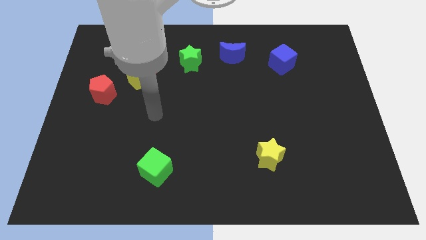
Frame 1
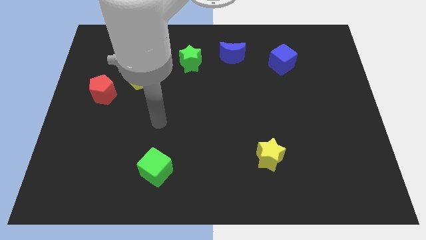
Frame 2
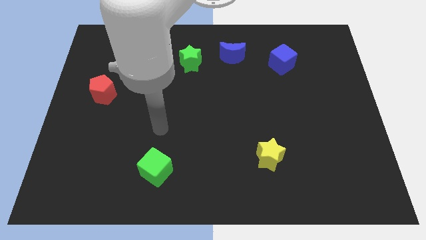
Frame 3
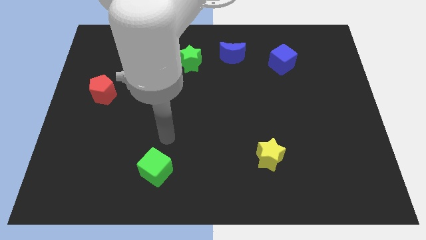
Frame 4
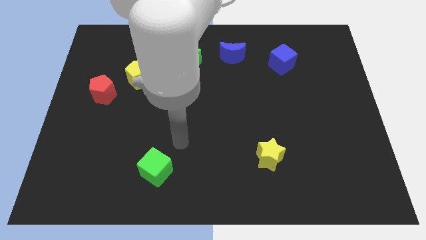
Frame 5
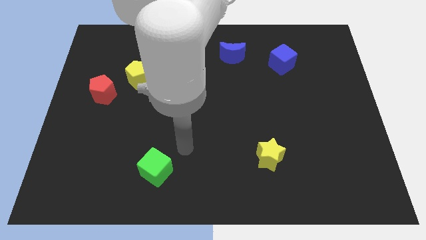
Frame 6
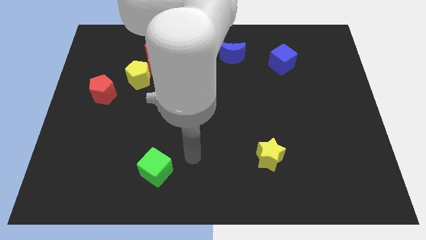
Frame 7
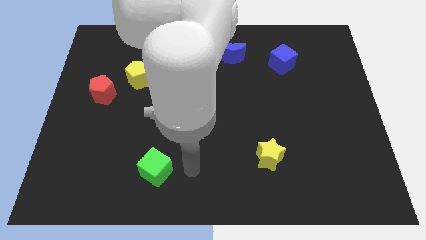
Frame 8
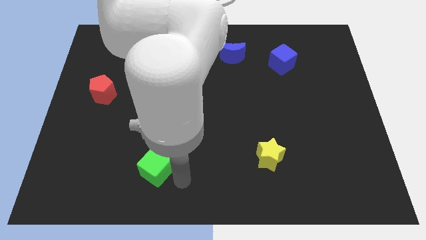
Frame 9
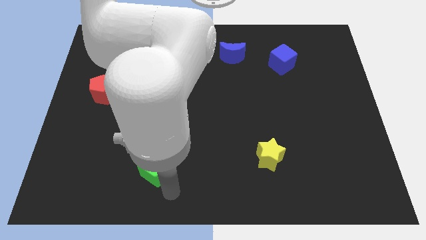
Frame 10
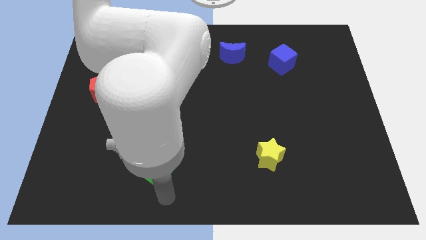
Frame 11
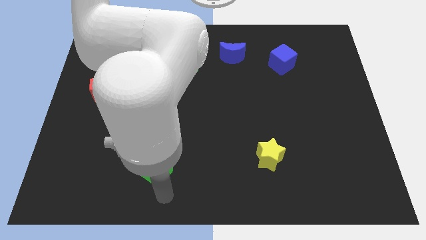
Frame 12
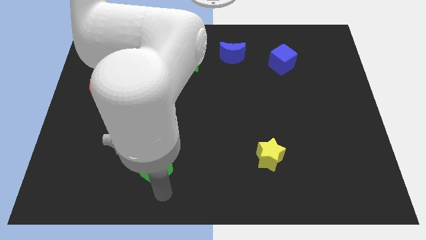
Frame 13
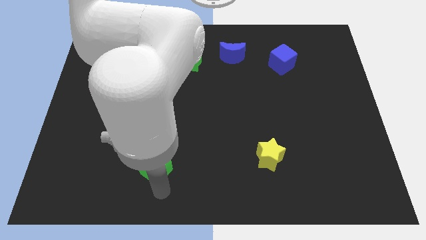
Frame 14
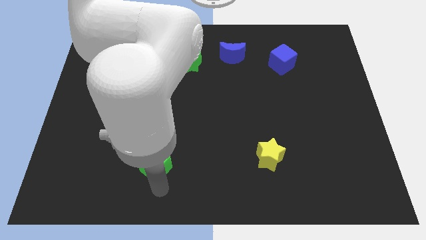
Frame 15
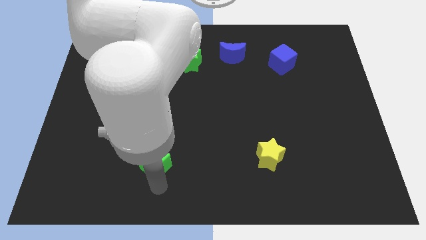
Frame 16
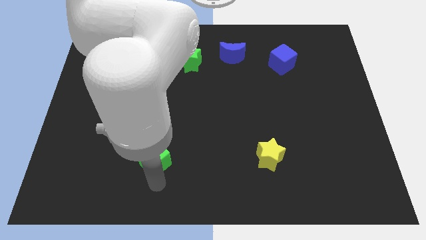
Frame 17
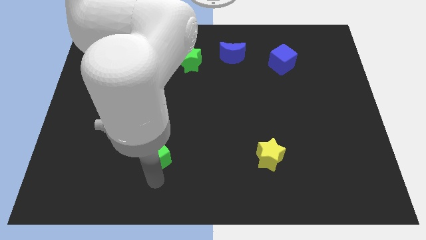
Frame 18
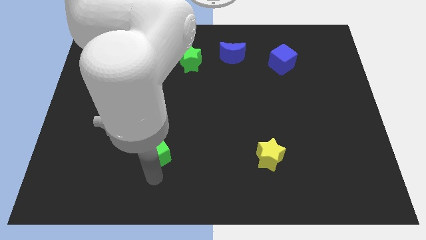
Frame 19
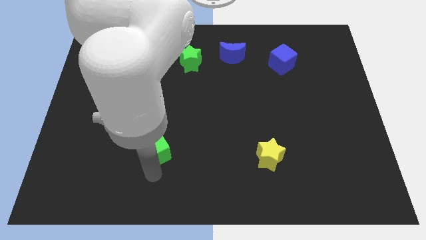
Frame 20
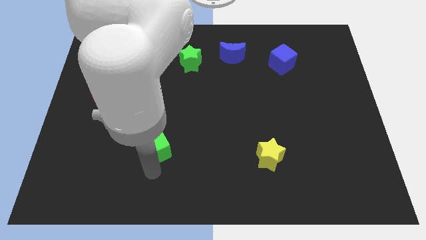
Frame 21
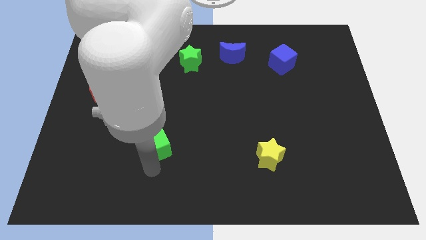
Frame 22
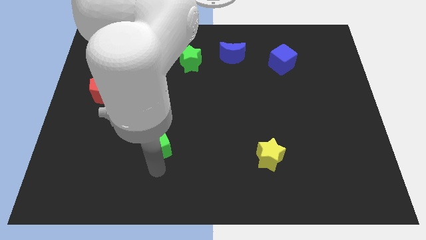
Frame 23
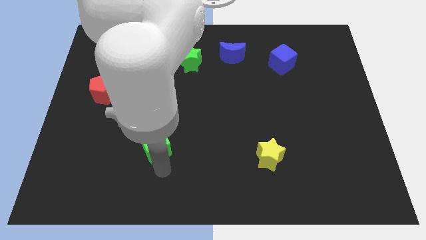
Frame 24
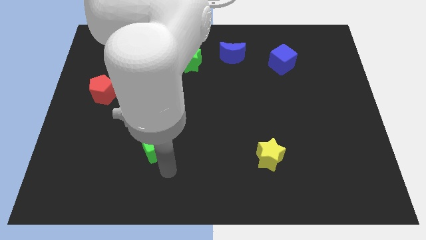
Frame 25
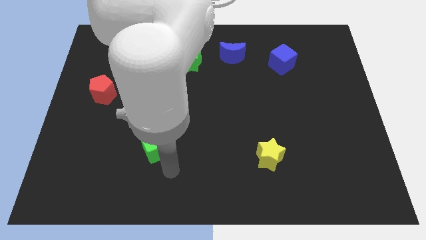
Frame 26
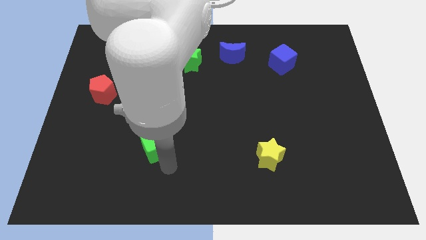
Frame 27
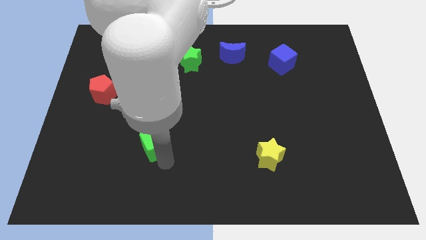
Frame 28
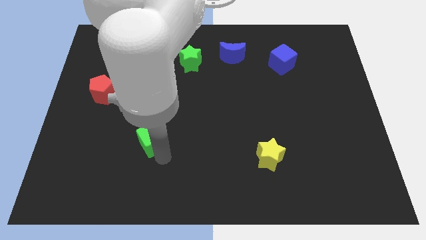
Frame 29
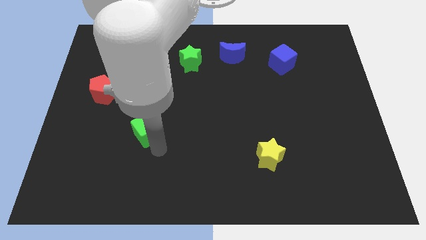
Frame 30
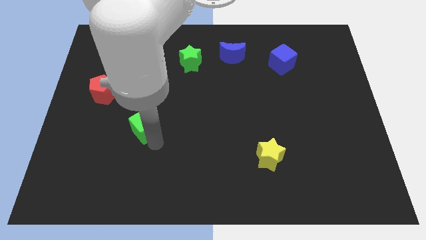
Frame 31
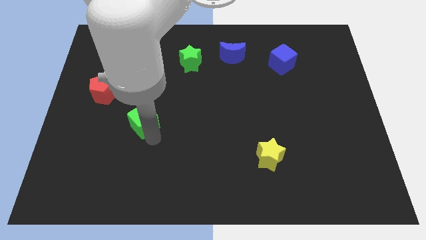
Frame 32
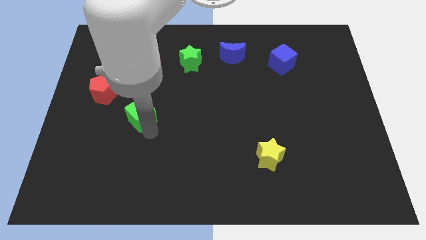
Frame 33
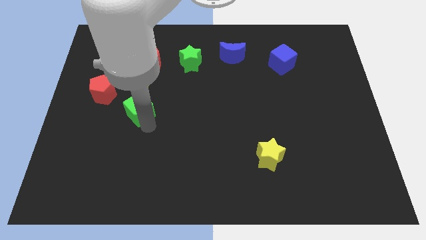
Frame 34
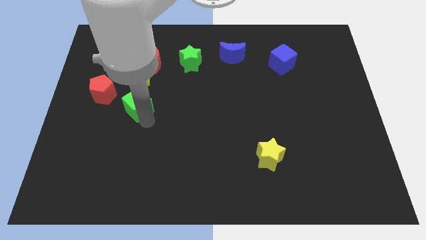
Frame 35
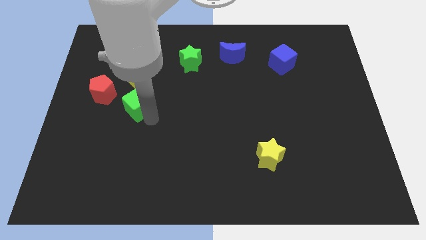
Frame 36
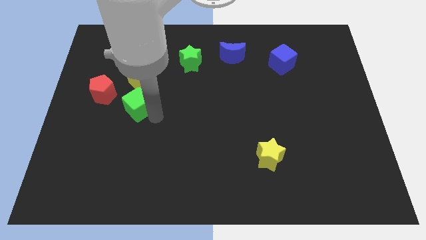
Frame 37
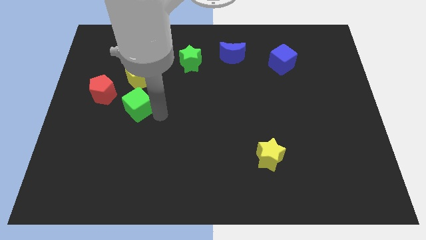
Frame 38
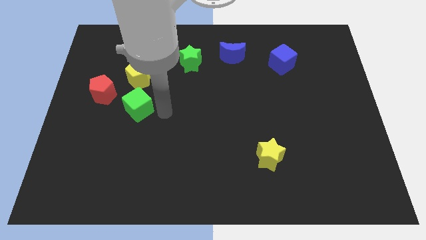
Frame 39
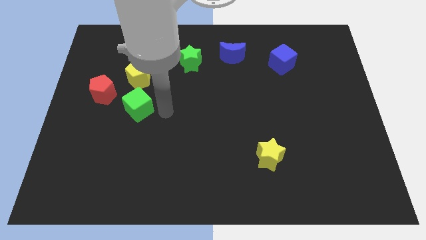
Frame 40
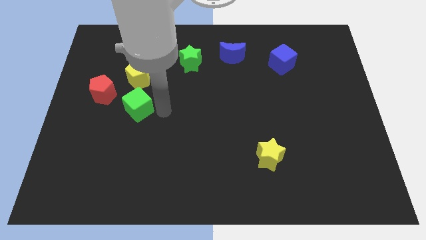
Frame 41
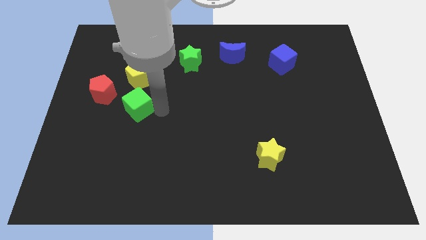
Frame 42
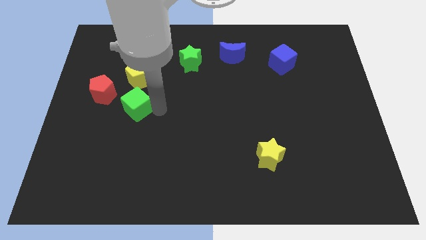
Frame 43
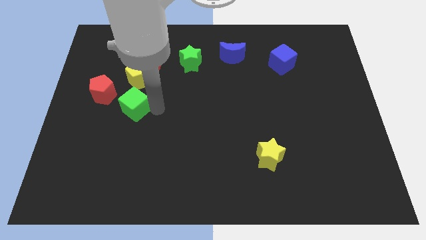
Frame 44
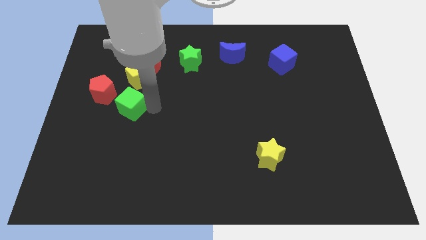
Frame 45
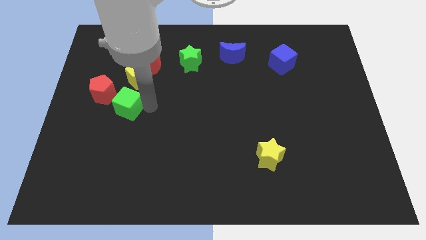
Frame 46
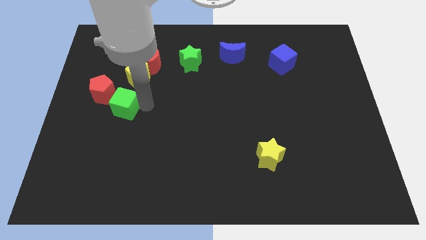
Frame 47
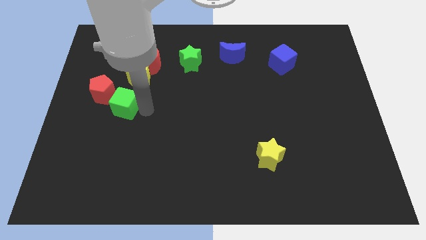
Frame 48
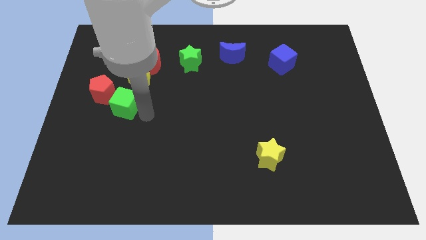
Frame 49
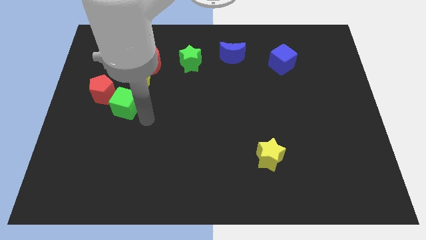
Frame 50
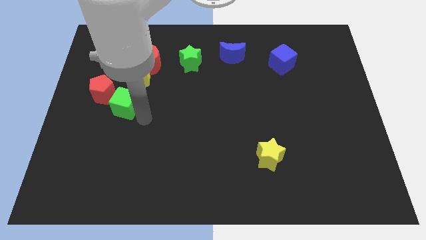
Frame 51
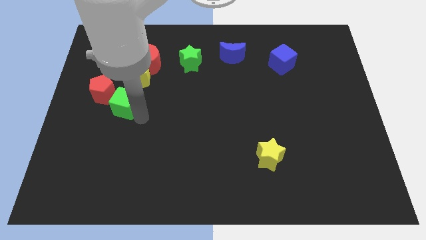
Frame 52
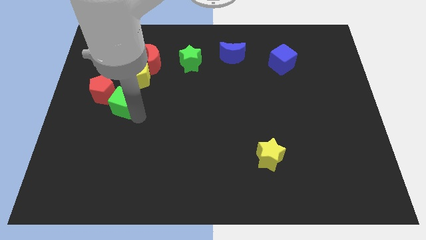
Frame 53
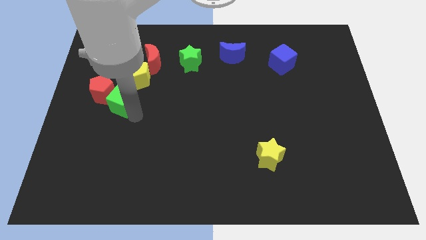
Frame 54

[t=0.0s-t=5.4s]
push the green cube next to the red pentagon

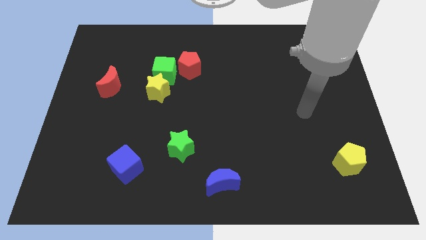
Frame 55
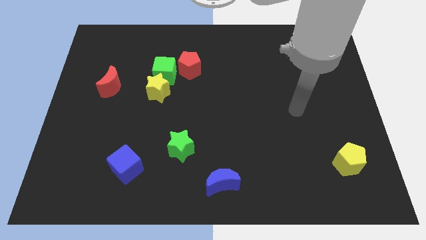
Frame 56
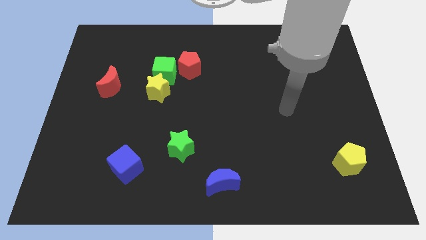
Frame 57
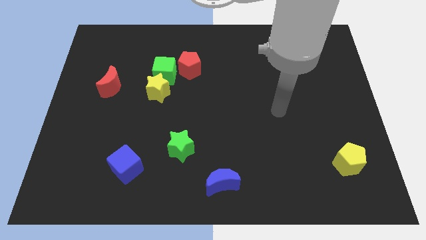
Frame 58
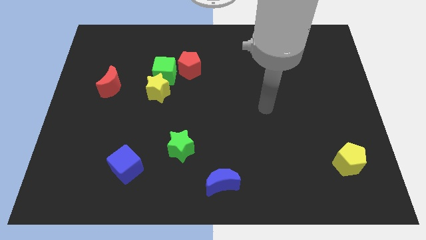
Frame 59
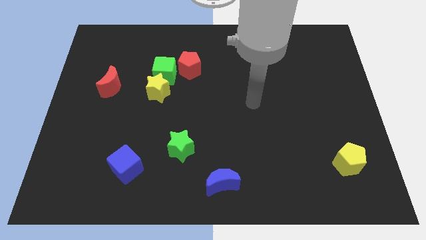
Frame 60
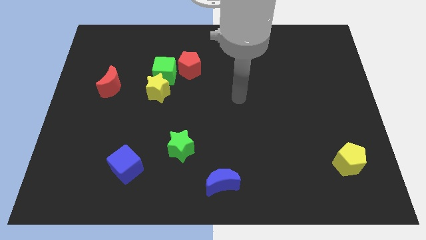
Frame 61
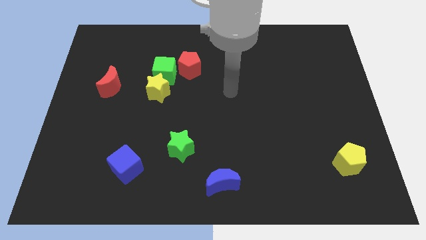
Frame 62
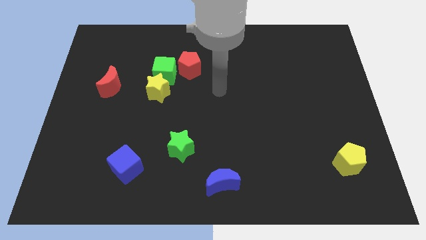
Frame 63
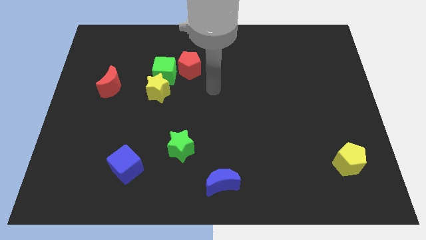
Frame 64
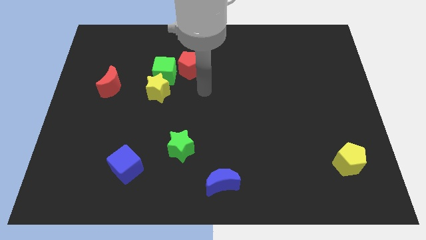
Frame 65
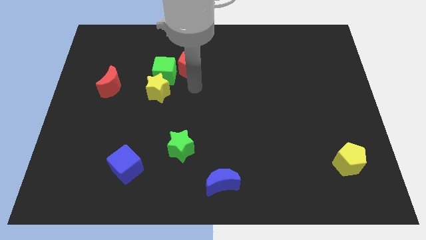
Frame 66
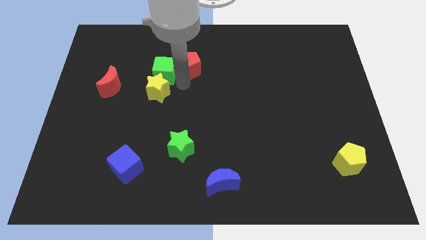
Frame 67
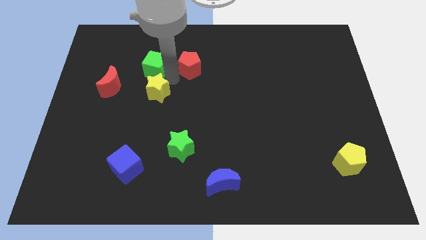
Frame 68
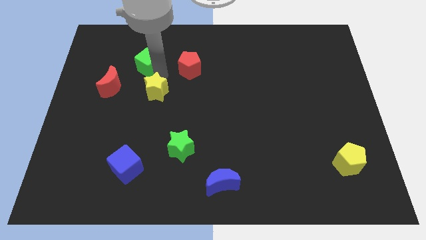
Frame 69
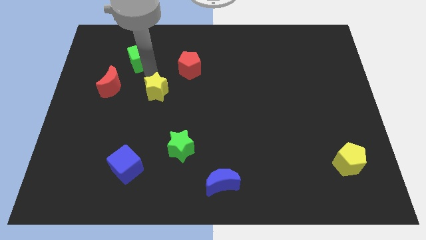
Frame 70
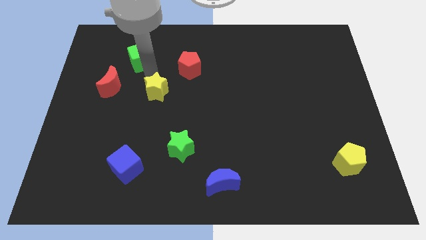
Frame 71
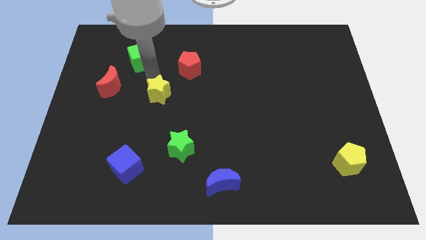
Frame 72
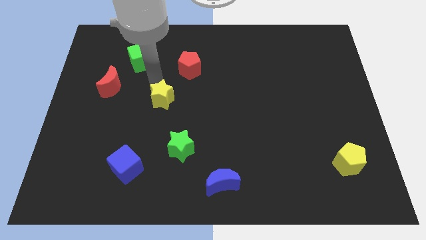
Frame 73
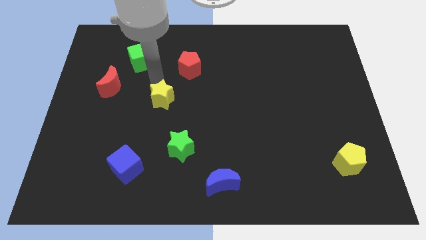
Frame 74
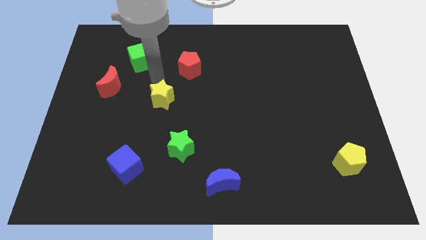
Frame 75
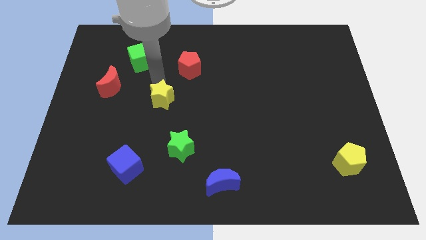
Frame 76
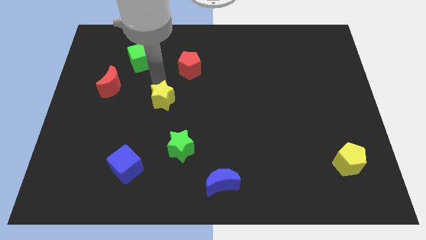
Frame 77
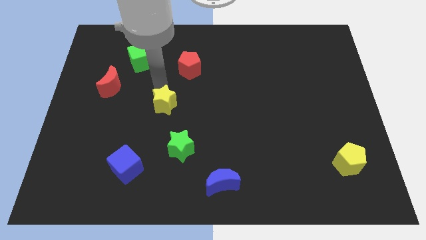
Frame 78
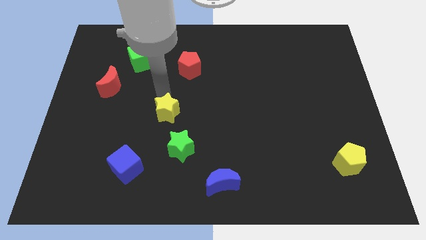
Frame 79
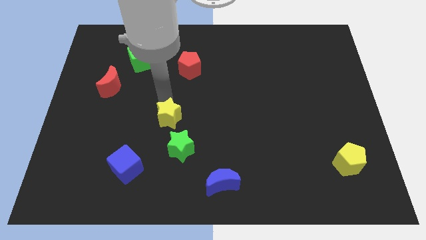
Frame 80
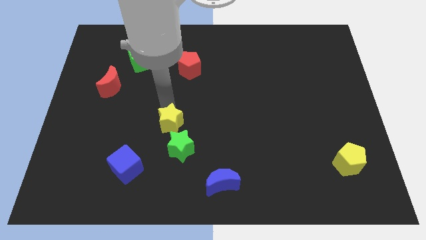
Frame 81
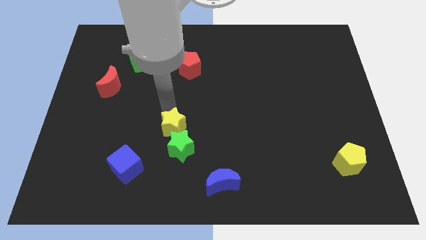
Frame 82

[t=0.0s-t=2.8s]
slide the yellow star towards the green star
